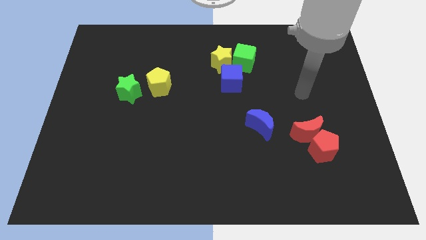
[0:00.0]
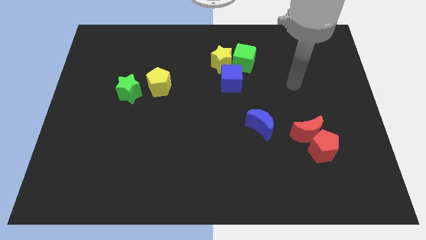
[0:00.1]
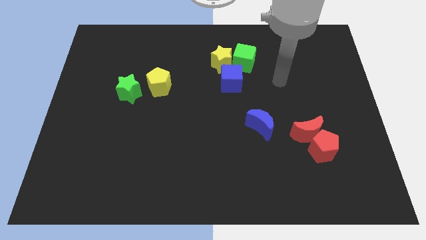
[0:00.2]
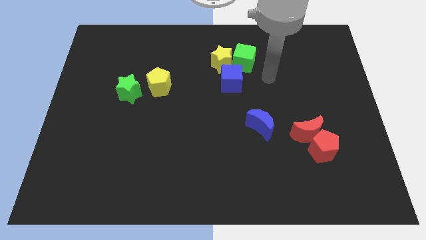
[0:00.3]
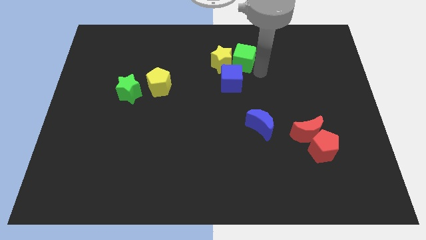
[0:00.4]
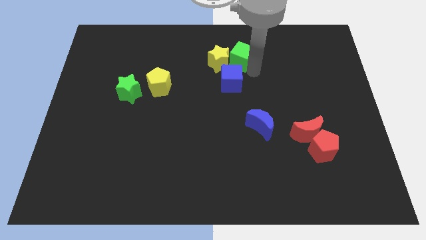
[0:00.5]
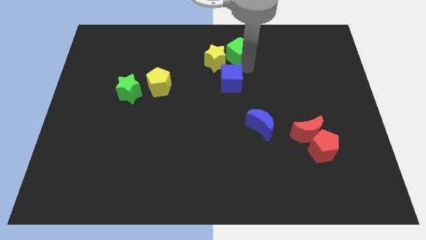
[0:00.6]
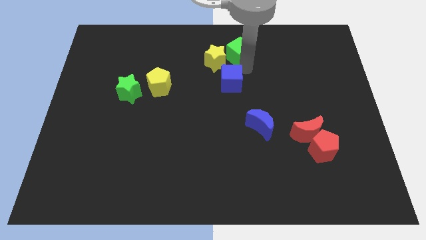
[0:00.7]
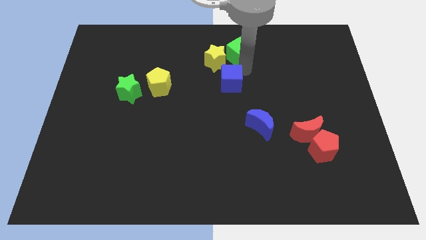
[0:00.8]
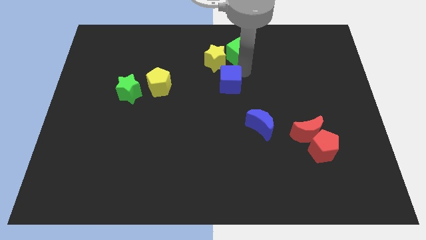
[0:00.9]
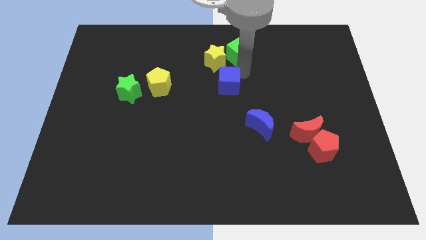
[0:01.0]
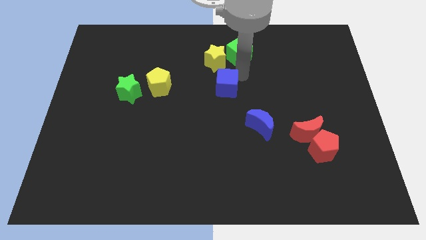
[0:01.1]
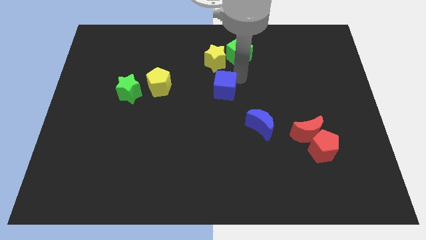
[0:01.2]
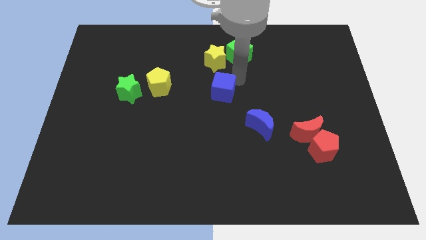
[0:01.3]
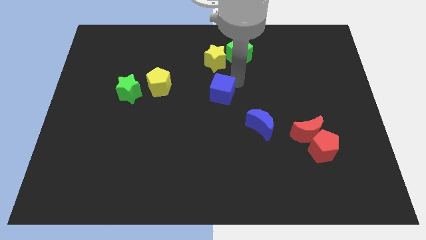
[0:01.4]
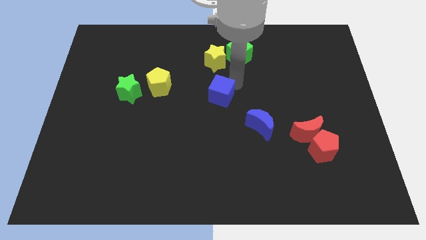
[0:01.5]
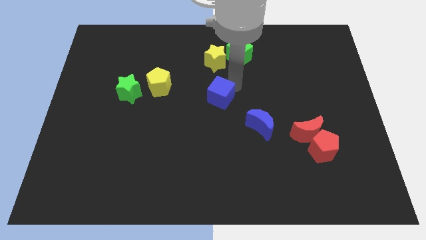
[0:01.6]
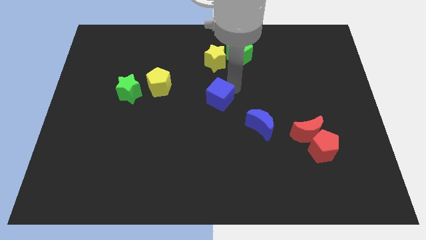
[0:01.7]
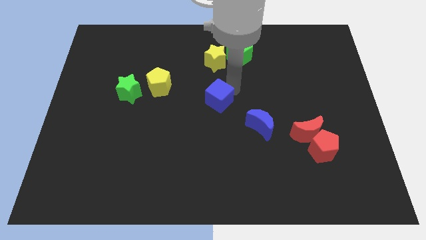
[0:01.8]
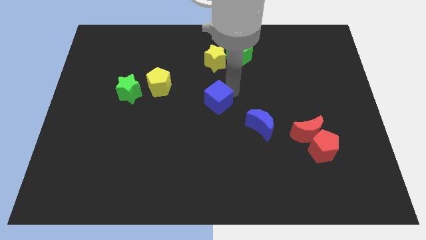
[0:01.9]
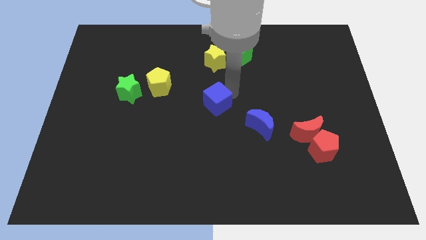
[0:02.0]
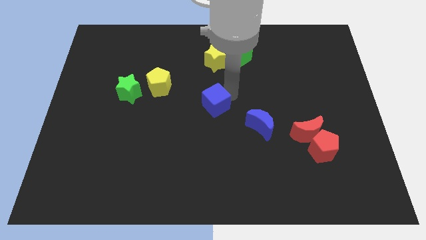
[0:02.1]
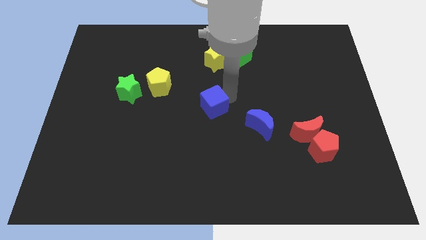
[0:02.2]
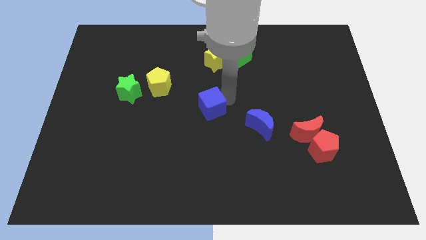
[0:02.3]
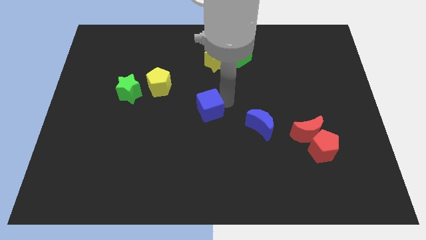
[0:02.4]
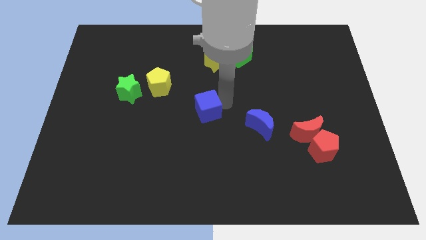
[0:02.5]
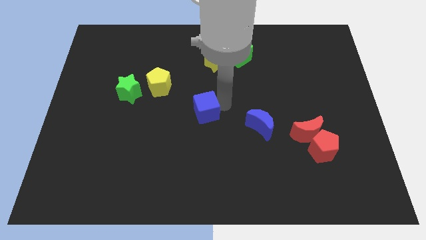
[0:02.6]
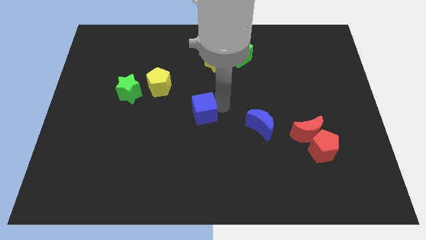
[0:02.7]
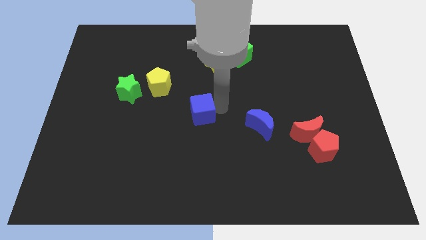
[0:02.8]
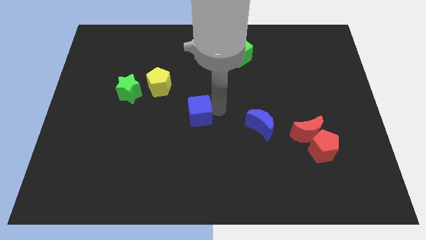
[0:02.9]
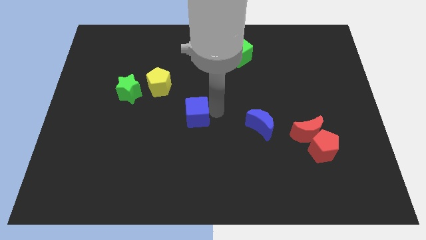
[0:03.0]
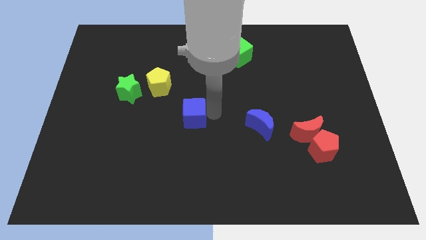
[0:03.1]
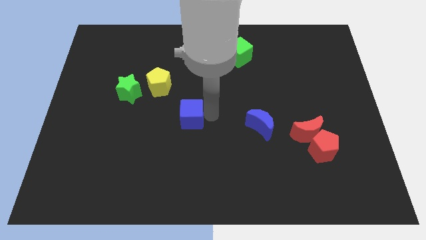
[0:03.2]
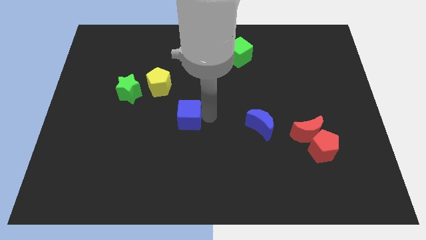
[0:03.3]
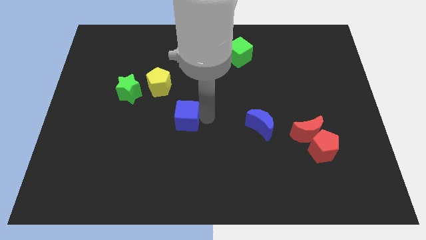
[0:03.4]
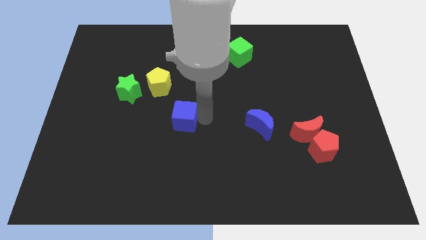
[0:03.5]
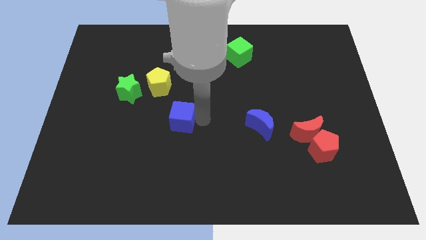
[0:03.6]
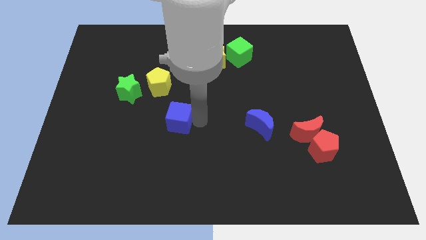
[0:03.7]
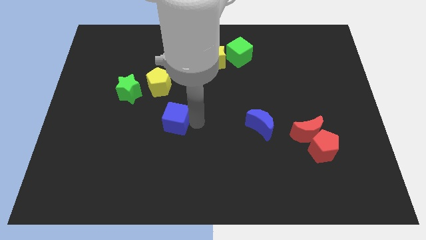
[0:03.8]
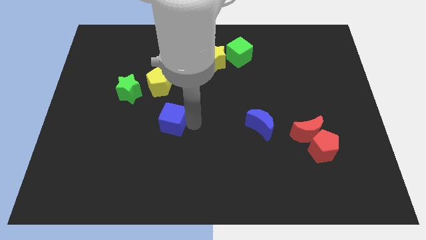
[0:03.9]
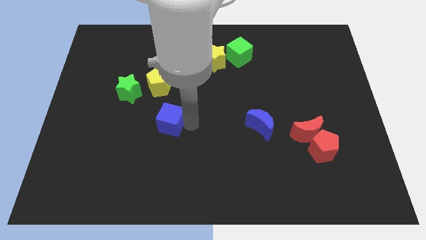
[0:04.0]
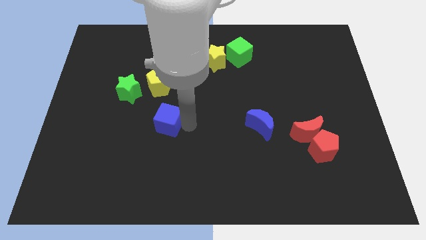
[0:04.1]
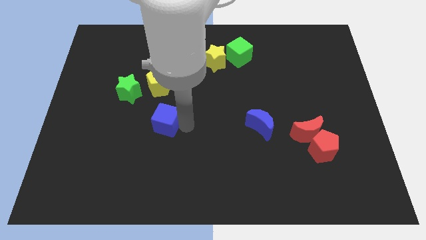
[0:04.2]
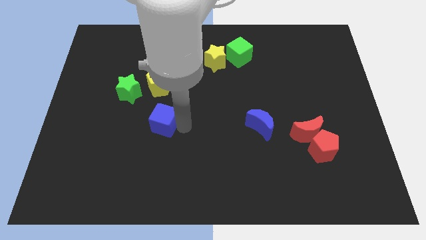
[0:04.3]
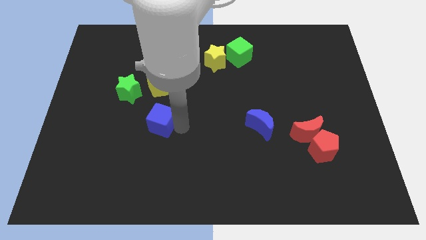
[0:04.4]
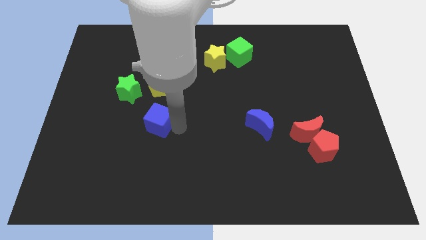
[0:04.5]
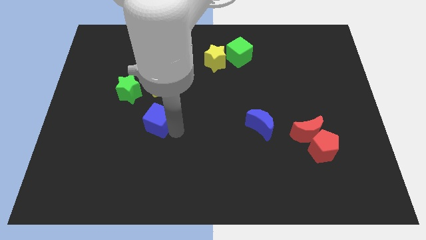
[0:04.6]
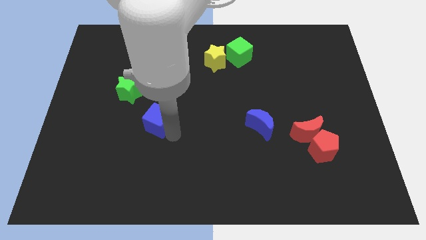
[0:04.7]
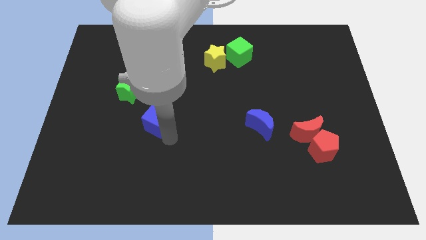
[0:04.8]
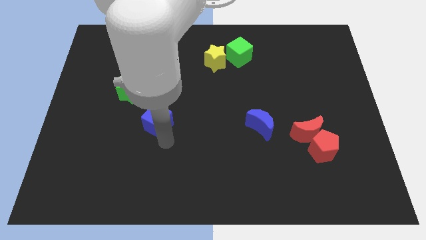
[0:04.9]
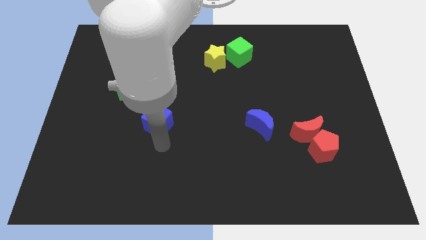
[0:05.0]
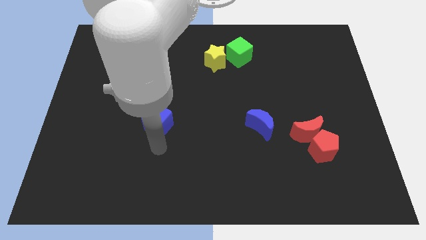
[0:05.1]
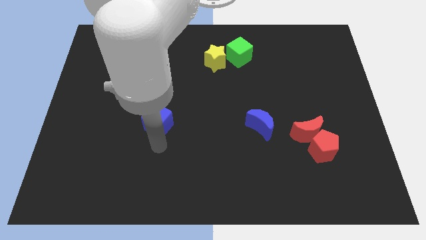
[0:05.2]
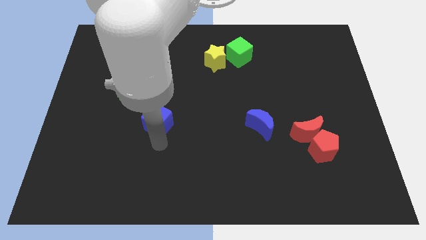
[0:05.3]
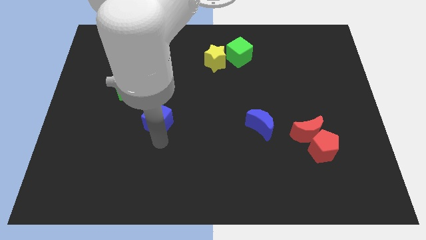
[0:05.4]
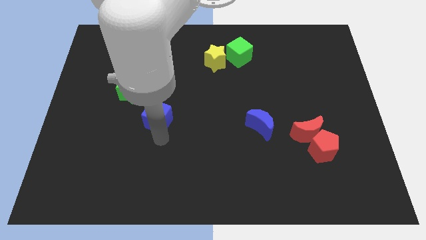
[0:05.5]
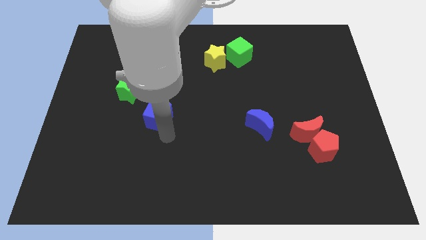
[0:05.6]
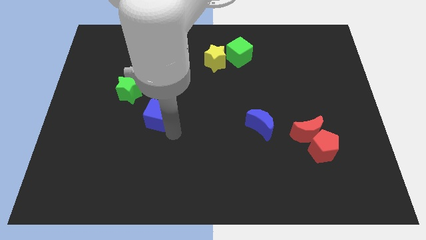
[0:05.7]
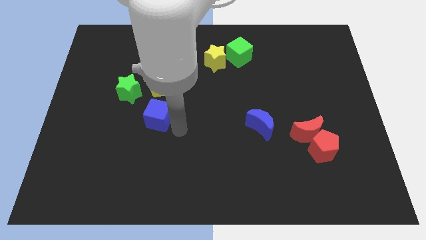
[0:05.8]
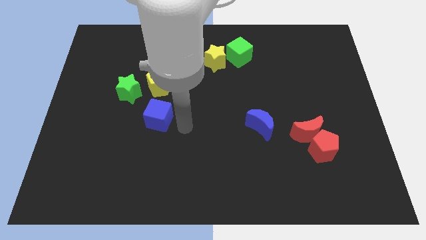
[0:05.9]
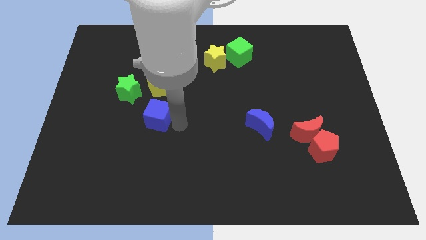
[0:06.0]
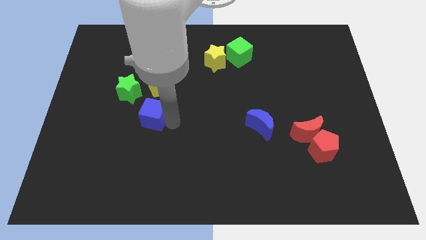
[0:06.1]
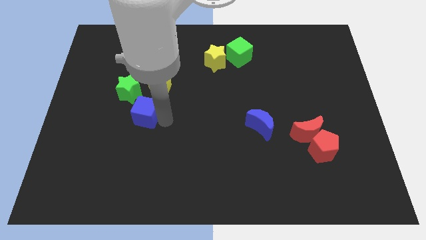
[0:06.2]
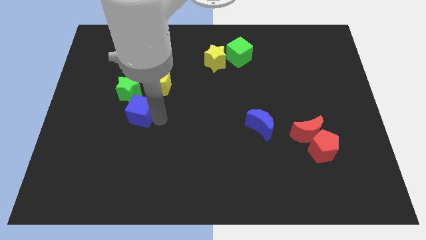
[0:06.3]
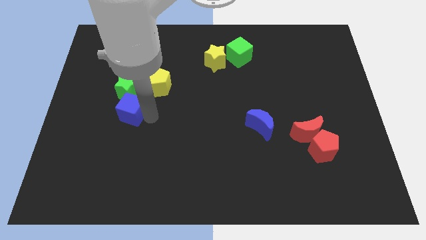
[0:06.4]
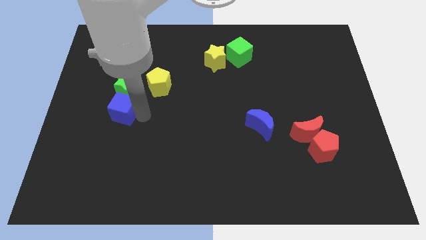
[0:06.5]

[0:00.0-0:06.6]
move the blue cube to the left

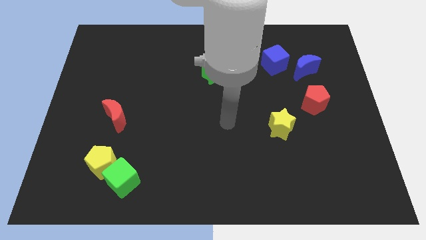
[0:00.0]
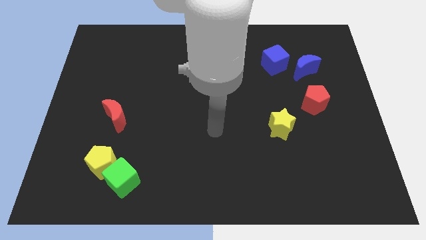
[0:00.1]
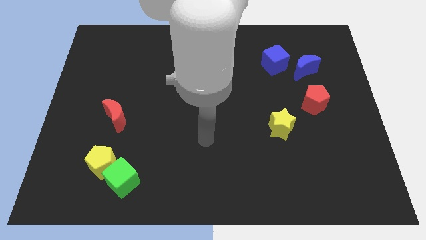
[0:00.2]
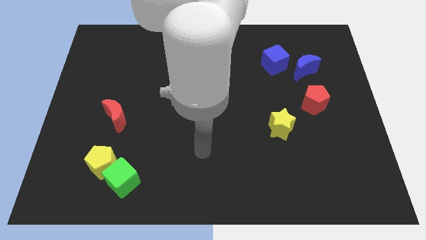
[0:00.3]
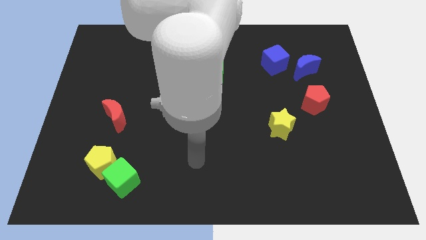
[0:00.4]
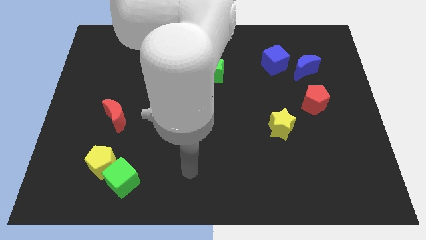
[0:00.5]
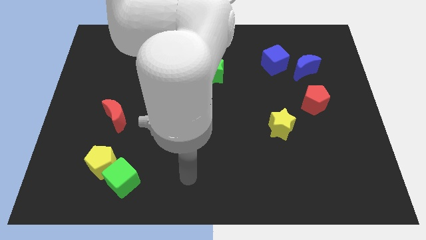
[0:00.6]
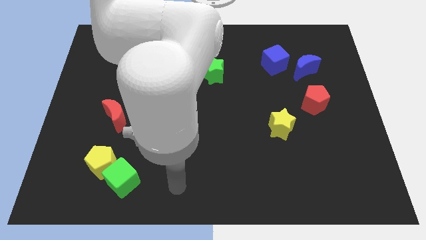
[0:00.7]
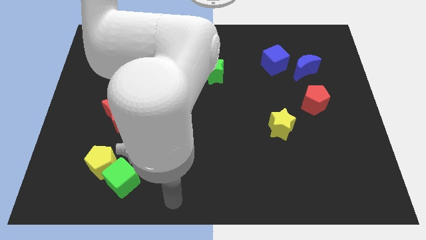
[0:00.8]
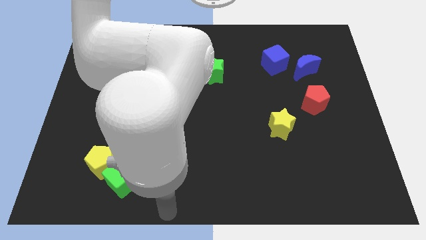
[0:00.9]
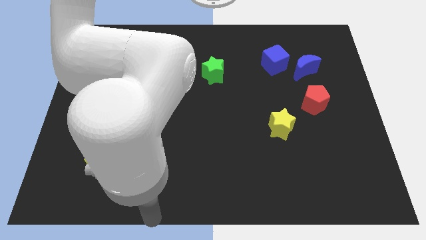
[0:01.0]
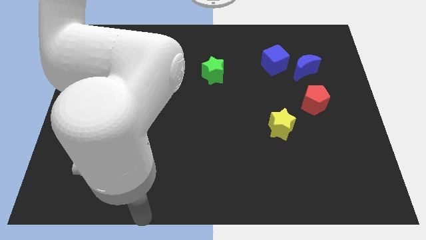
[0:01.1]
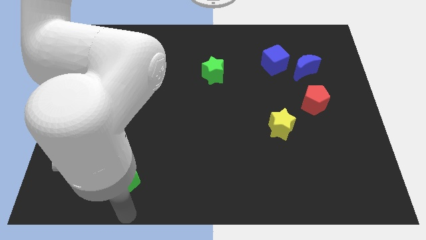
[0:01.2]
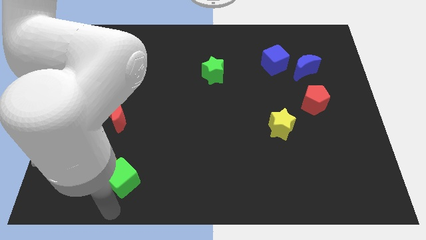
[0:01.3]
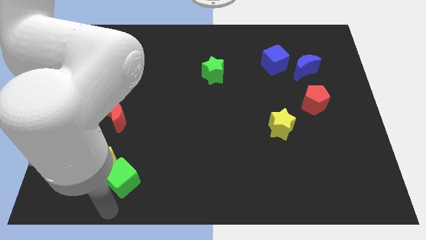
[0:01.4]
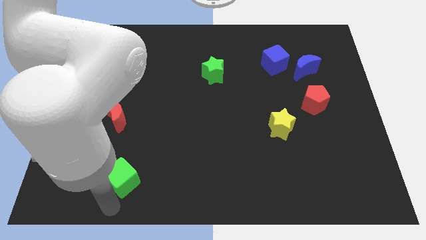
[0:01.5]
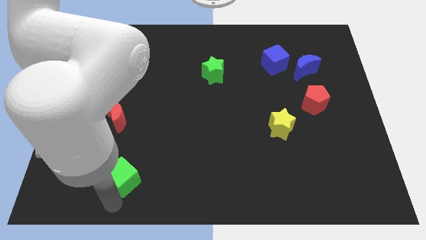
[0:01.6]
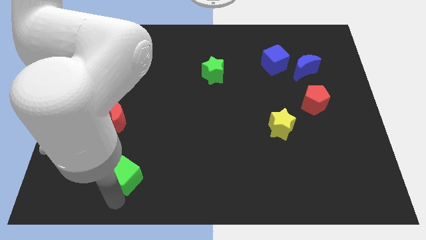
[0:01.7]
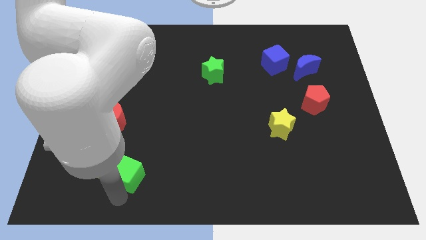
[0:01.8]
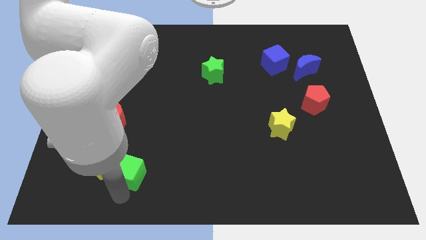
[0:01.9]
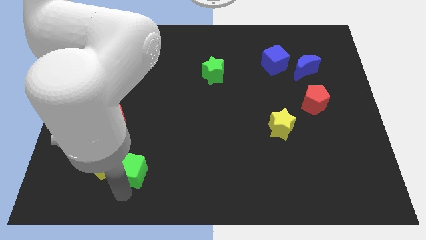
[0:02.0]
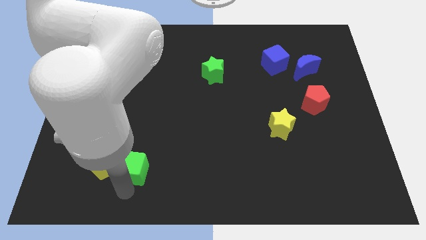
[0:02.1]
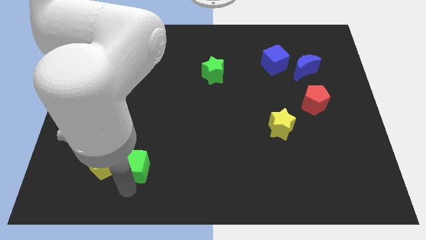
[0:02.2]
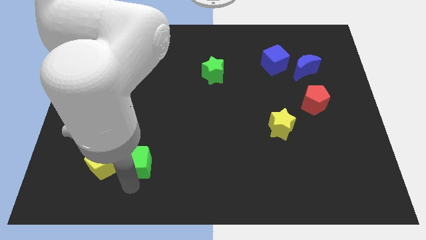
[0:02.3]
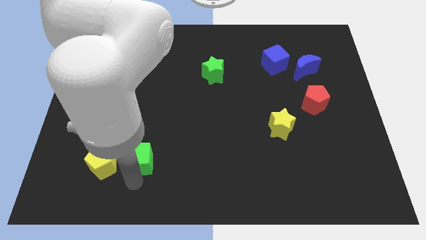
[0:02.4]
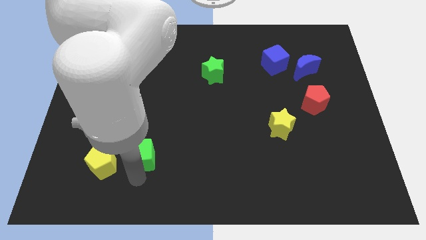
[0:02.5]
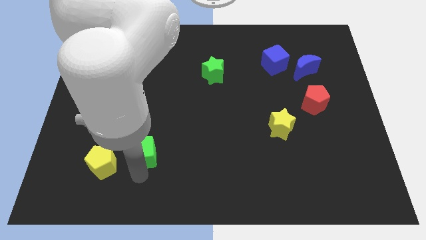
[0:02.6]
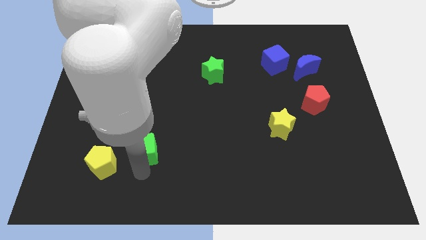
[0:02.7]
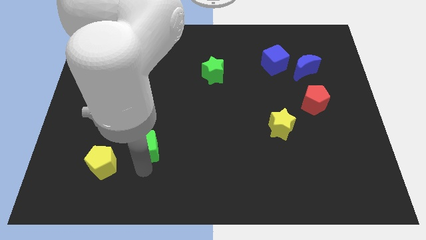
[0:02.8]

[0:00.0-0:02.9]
move the green cube slightly upwards
